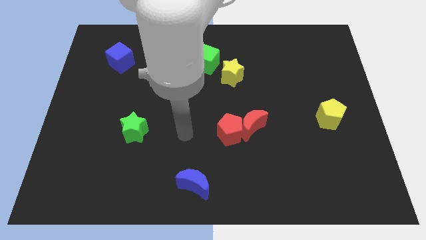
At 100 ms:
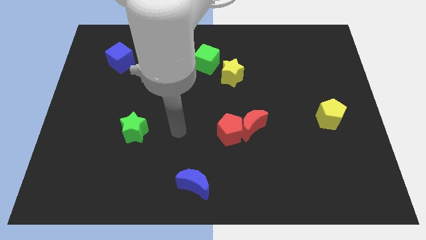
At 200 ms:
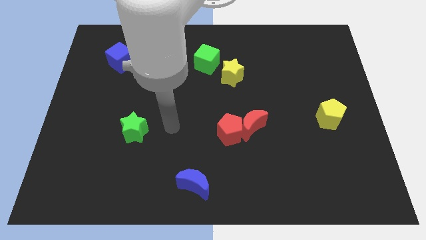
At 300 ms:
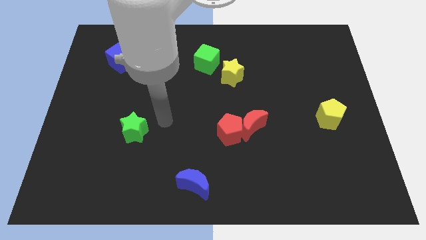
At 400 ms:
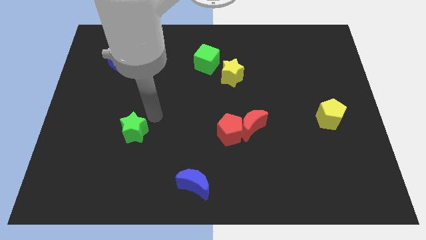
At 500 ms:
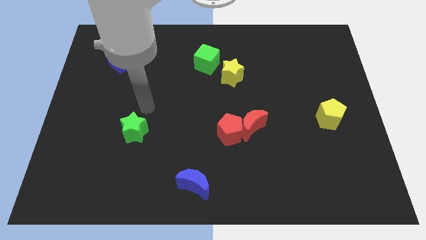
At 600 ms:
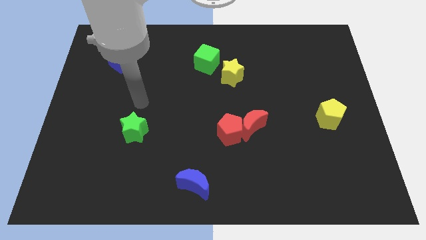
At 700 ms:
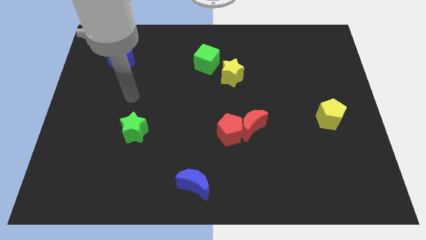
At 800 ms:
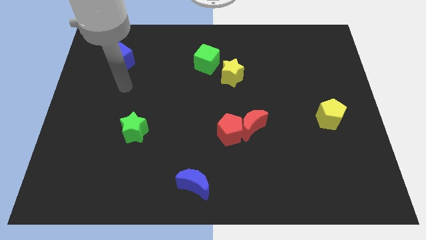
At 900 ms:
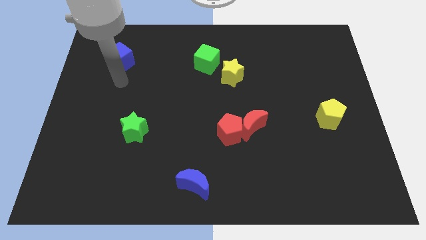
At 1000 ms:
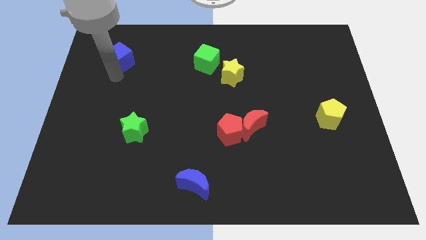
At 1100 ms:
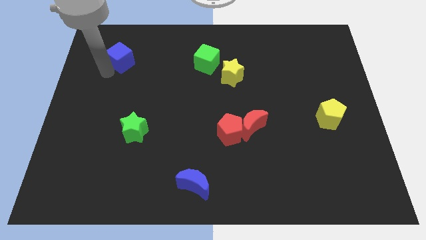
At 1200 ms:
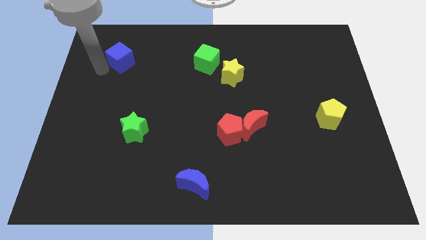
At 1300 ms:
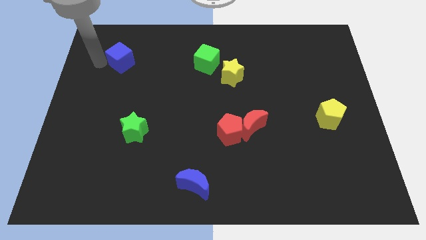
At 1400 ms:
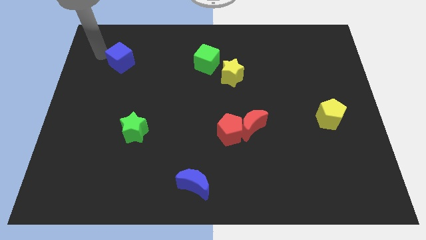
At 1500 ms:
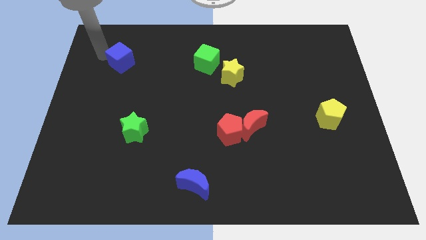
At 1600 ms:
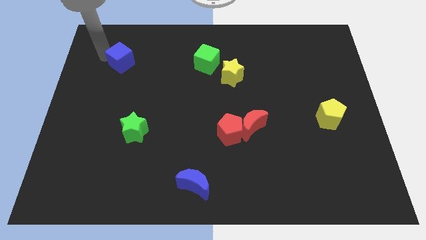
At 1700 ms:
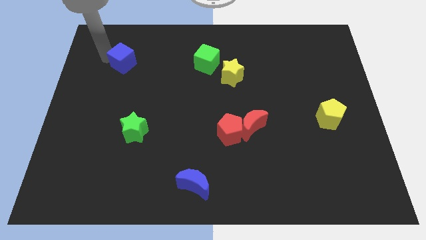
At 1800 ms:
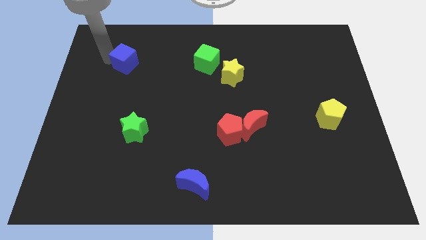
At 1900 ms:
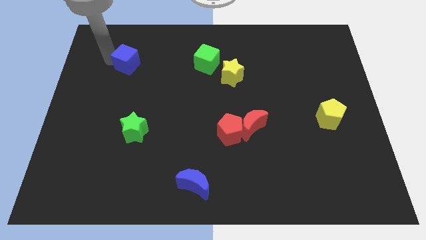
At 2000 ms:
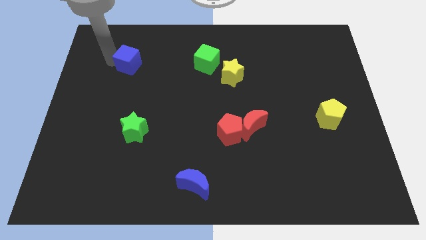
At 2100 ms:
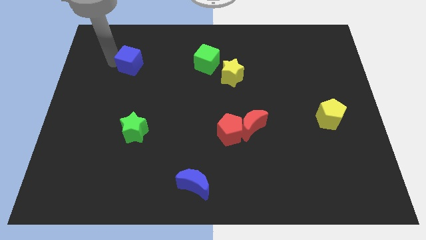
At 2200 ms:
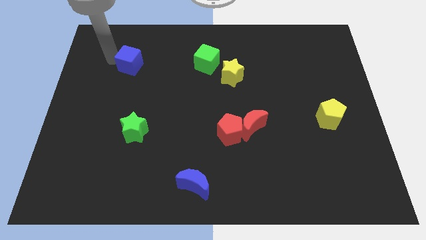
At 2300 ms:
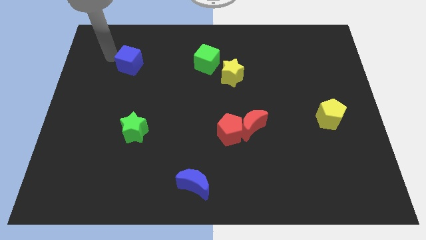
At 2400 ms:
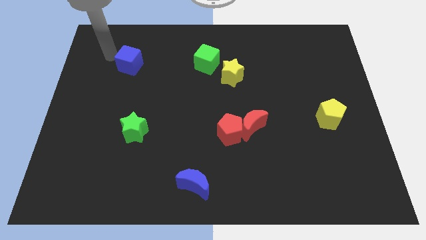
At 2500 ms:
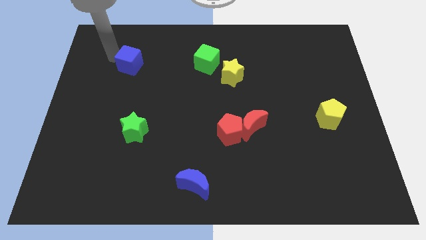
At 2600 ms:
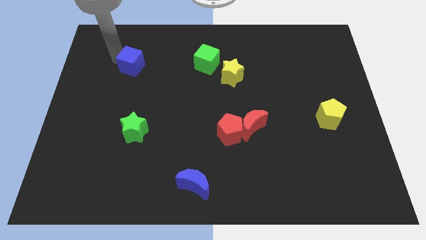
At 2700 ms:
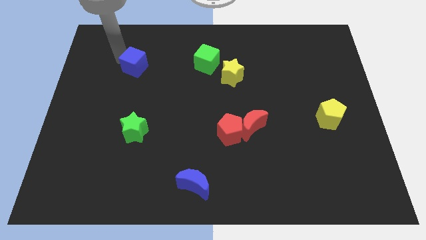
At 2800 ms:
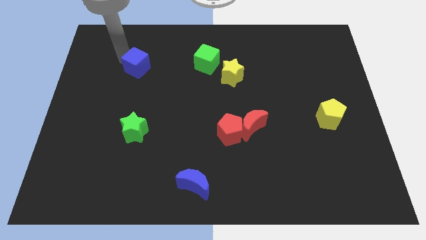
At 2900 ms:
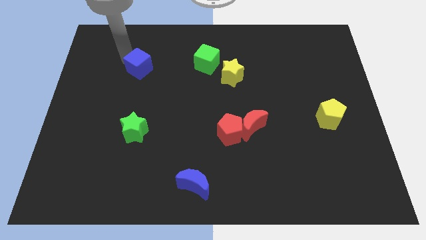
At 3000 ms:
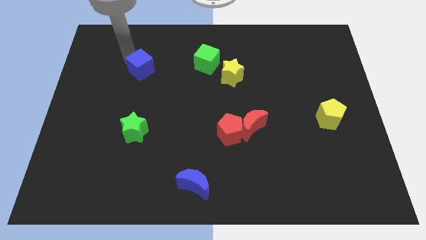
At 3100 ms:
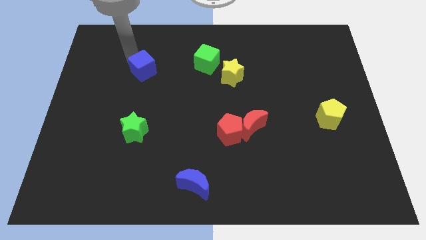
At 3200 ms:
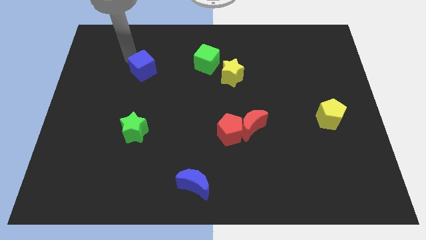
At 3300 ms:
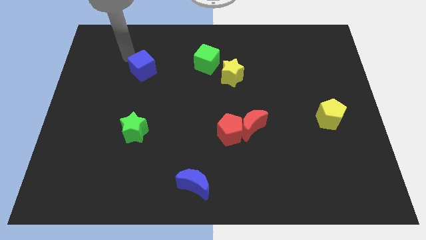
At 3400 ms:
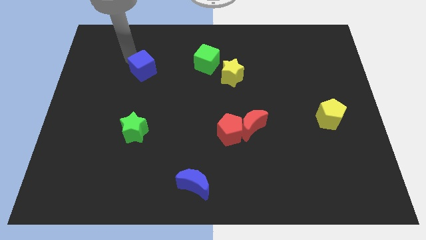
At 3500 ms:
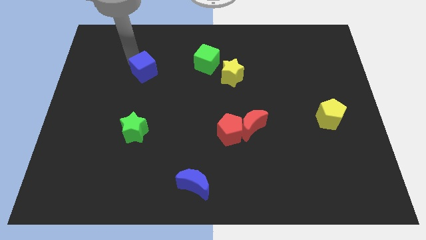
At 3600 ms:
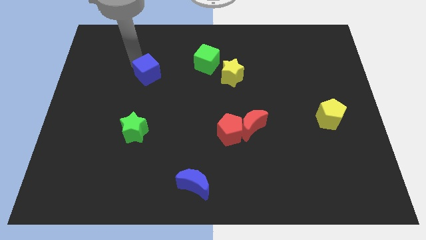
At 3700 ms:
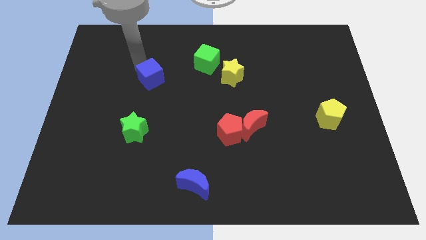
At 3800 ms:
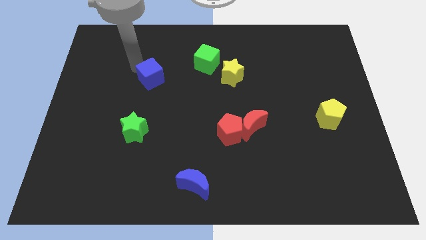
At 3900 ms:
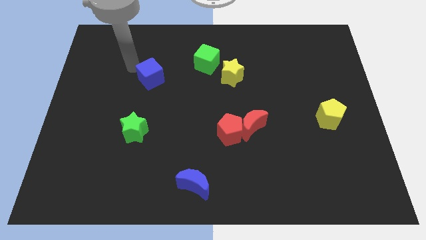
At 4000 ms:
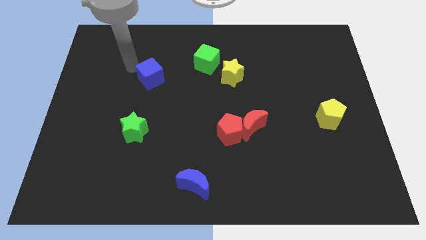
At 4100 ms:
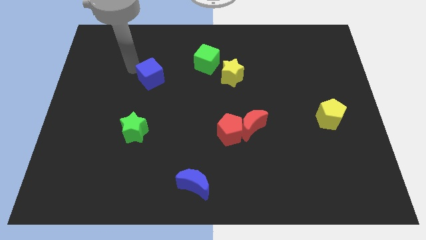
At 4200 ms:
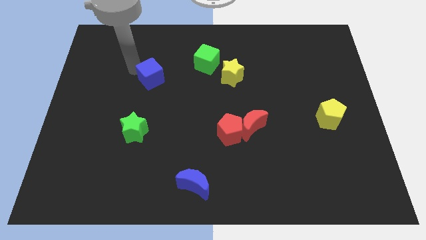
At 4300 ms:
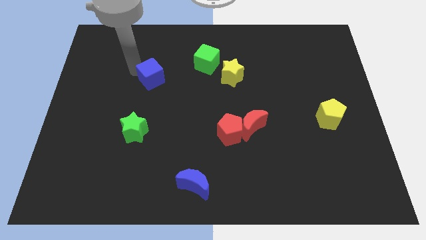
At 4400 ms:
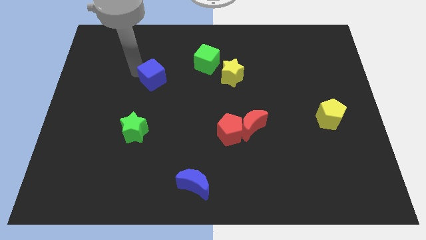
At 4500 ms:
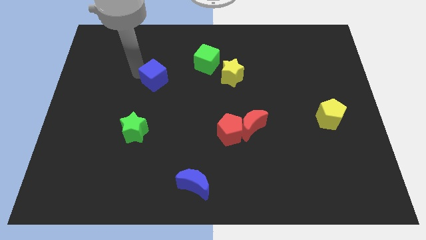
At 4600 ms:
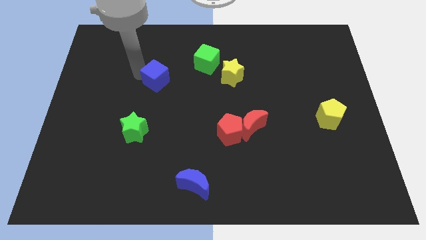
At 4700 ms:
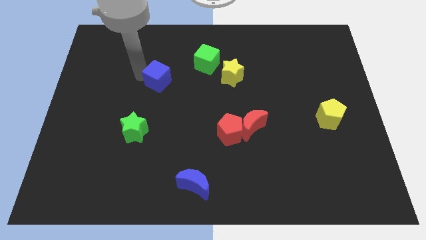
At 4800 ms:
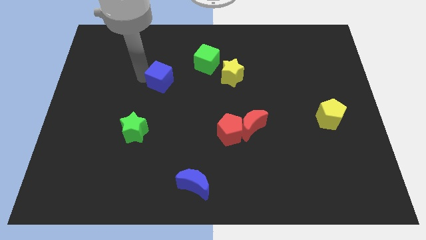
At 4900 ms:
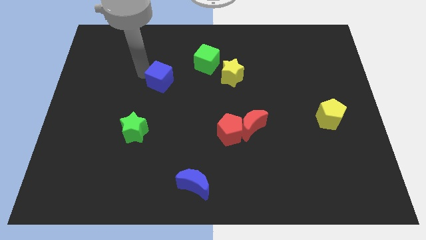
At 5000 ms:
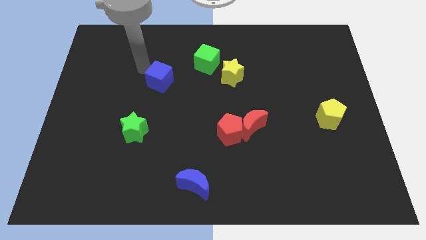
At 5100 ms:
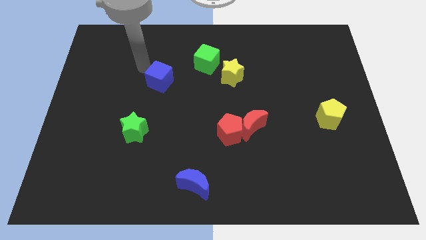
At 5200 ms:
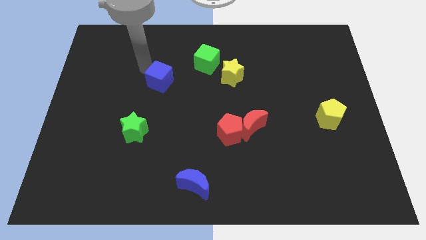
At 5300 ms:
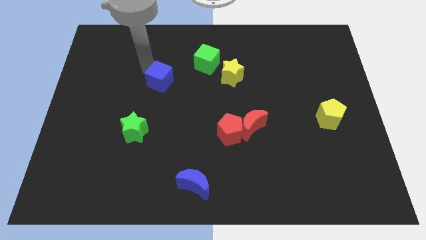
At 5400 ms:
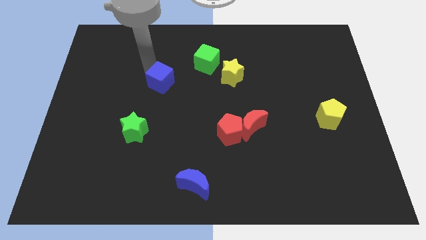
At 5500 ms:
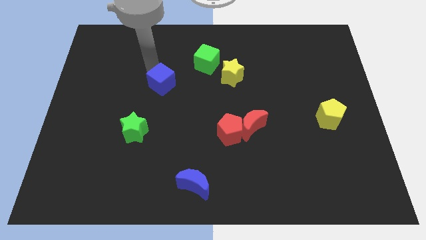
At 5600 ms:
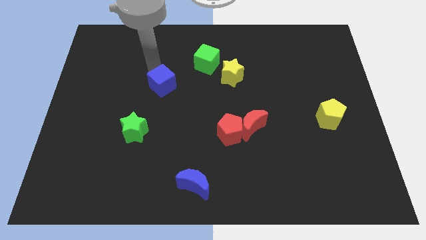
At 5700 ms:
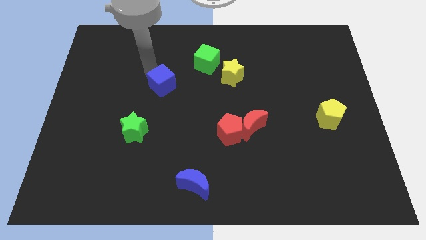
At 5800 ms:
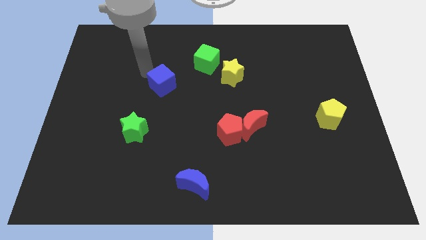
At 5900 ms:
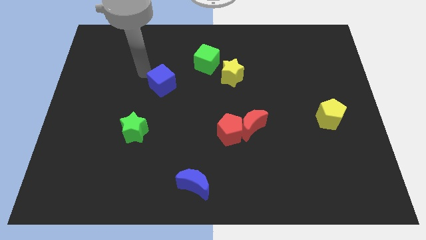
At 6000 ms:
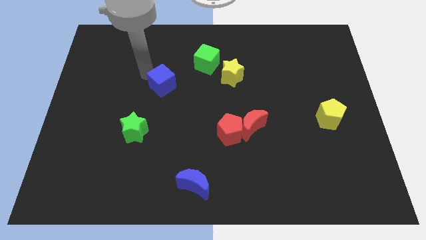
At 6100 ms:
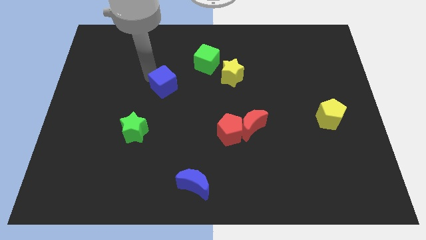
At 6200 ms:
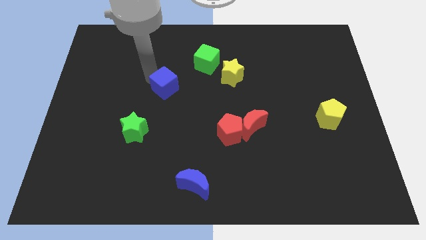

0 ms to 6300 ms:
push the blue cube to the center
